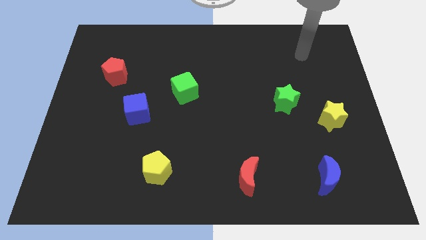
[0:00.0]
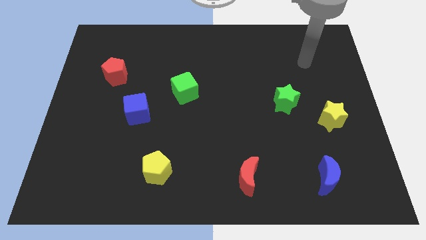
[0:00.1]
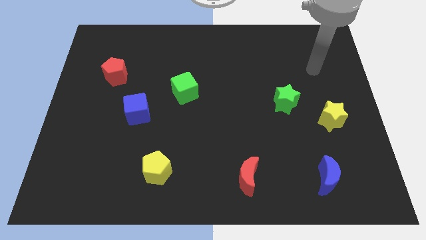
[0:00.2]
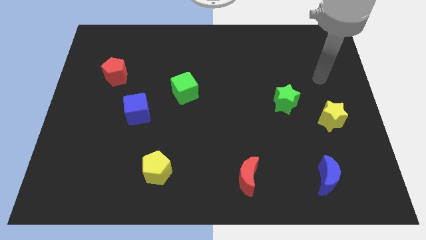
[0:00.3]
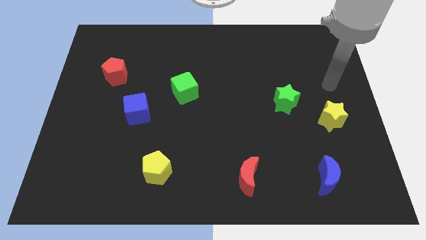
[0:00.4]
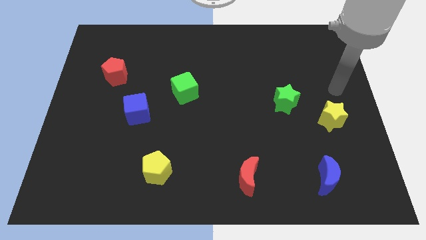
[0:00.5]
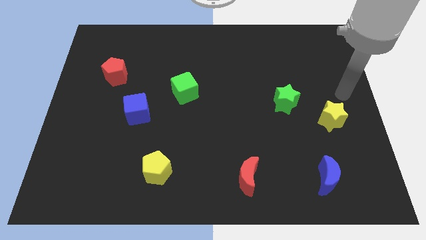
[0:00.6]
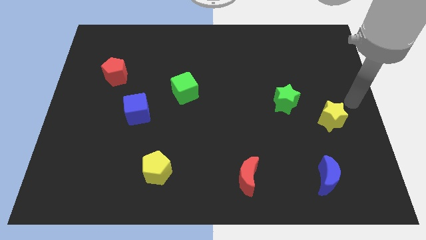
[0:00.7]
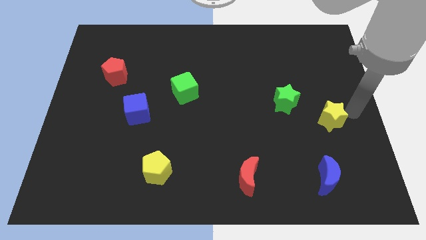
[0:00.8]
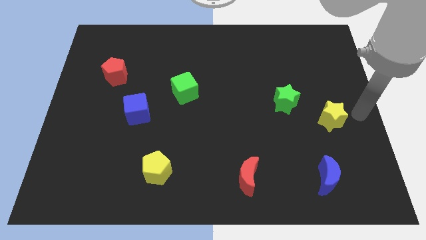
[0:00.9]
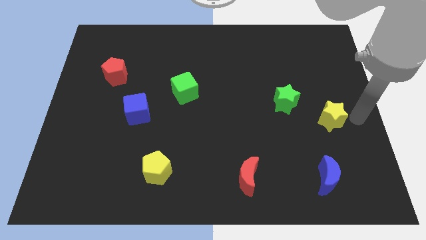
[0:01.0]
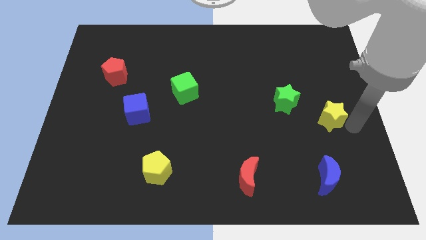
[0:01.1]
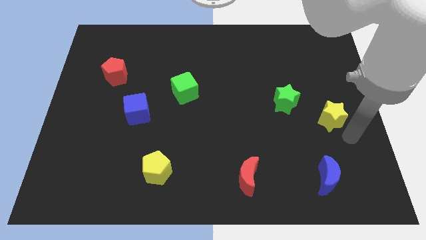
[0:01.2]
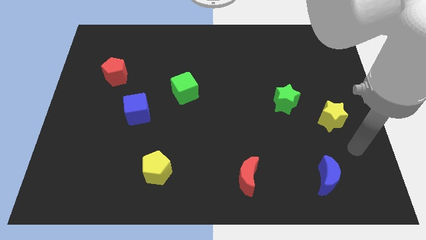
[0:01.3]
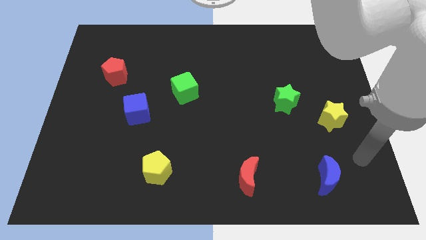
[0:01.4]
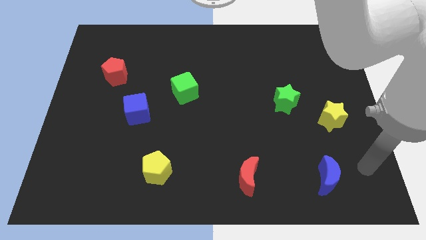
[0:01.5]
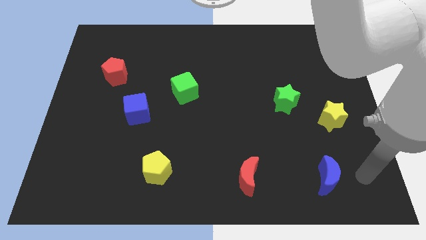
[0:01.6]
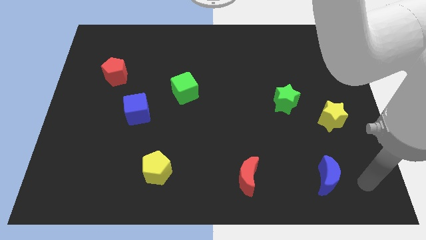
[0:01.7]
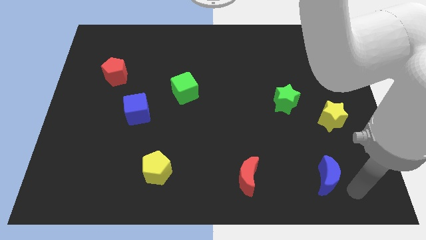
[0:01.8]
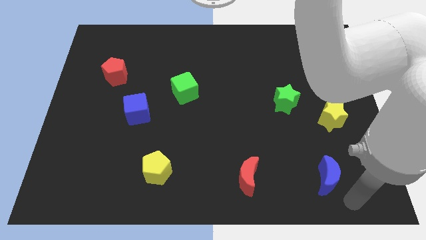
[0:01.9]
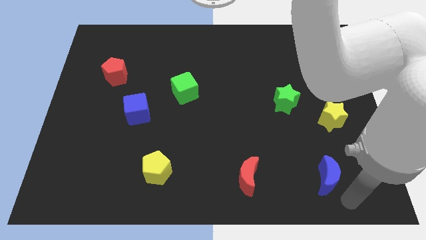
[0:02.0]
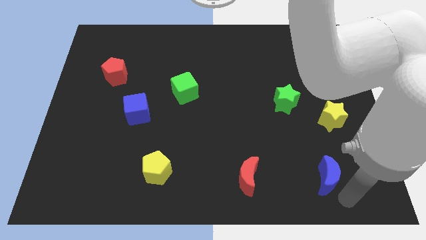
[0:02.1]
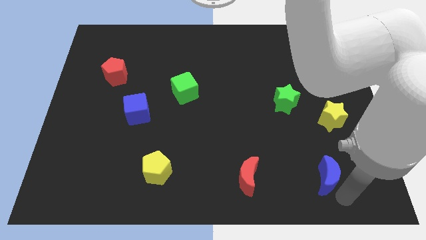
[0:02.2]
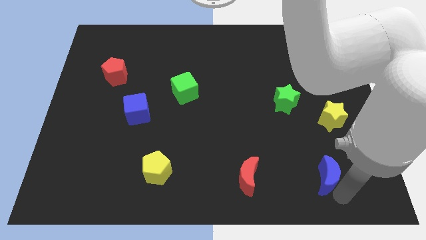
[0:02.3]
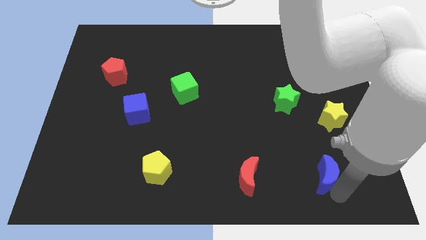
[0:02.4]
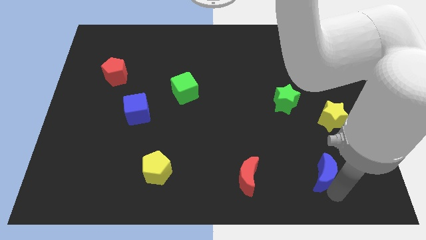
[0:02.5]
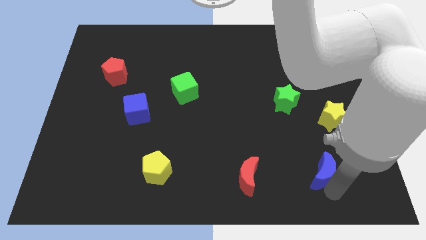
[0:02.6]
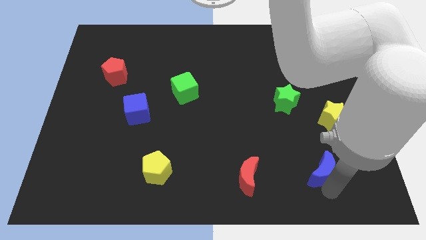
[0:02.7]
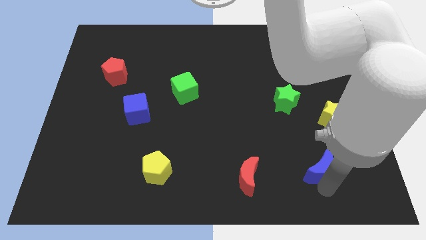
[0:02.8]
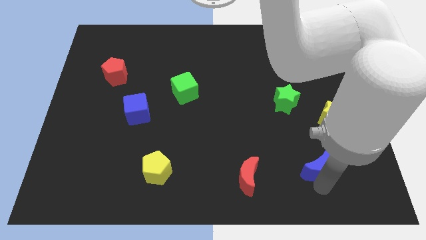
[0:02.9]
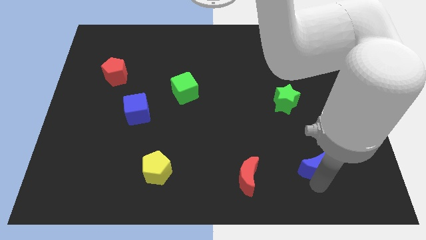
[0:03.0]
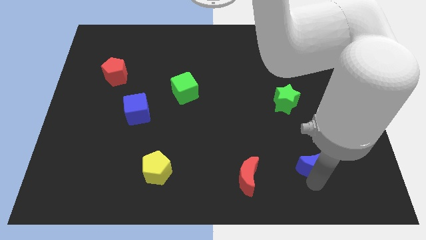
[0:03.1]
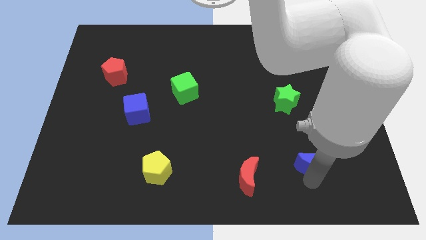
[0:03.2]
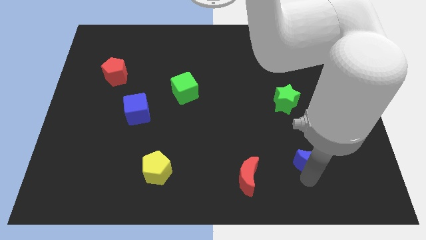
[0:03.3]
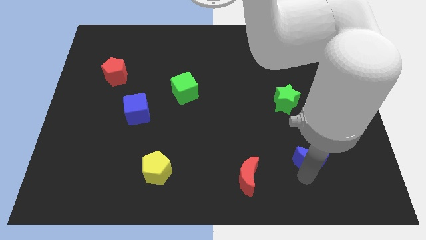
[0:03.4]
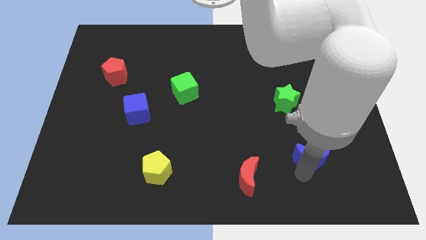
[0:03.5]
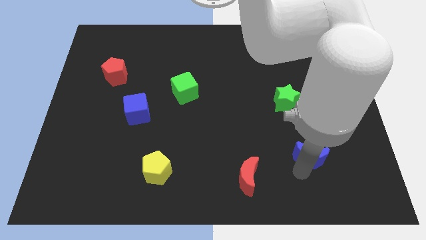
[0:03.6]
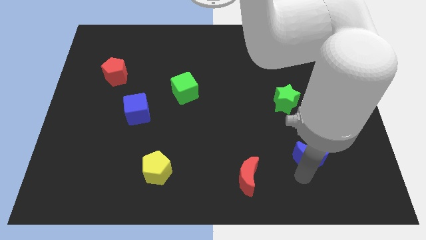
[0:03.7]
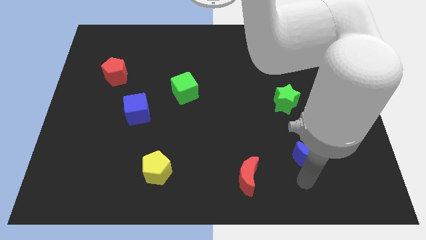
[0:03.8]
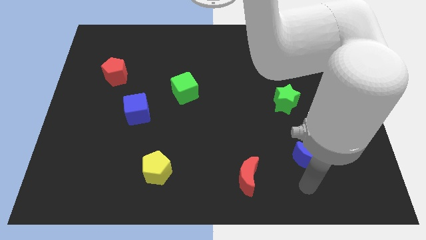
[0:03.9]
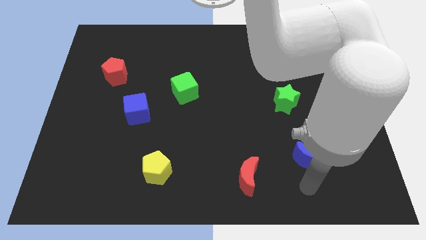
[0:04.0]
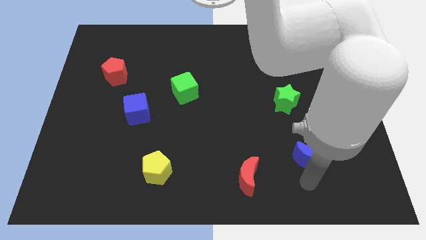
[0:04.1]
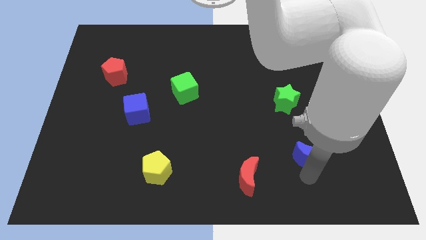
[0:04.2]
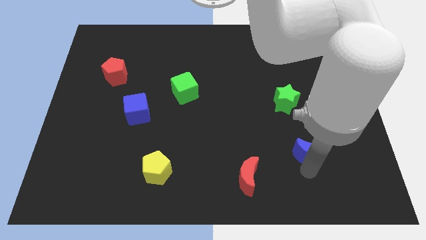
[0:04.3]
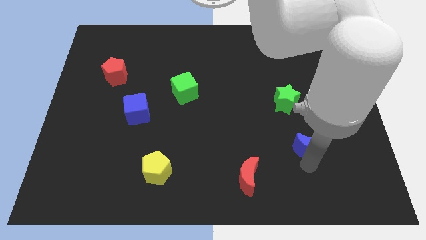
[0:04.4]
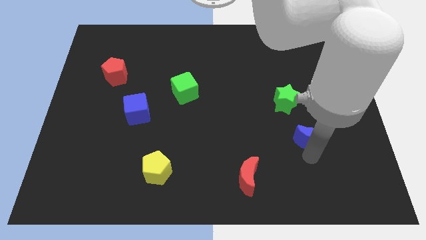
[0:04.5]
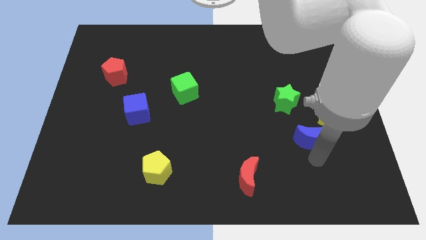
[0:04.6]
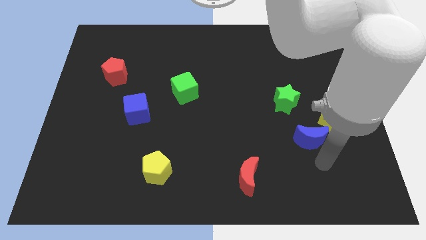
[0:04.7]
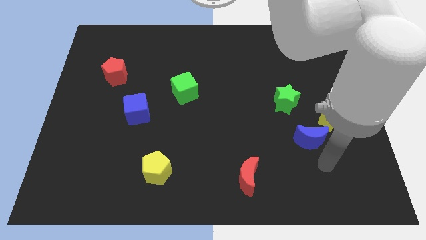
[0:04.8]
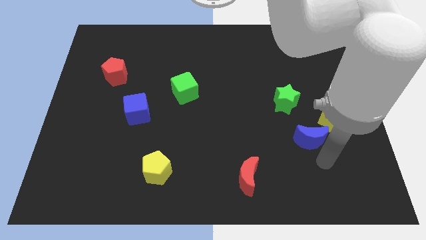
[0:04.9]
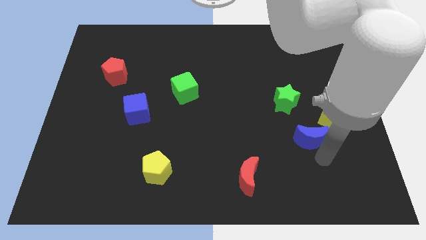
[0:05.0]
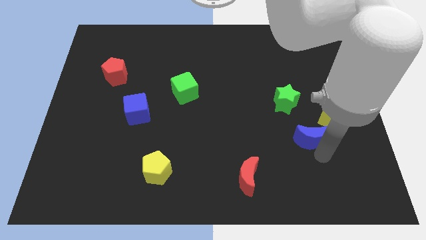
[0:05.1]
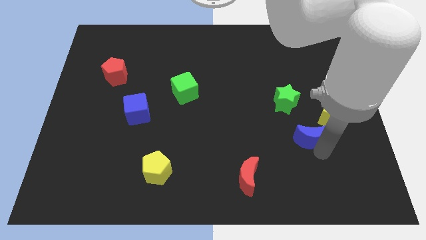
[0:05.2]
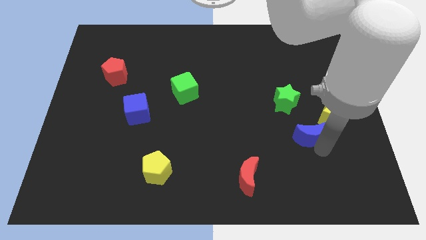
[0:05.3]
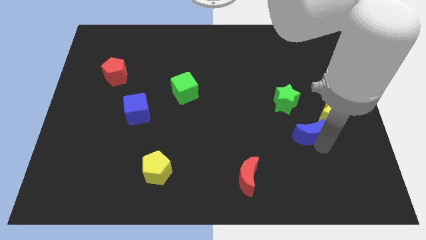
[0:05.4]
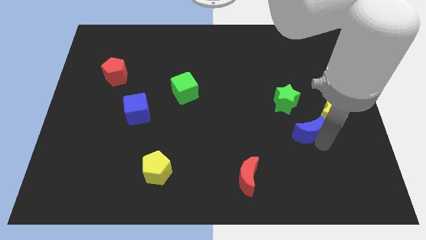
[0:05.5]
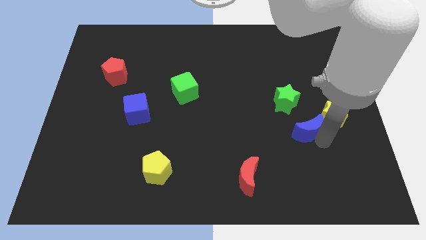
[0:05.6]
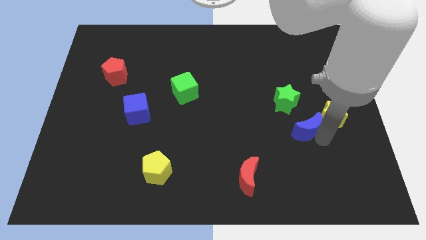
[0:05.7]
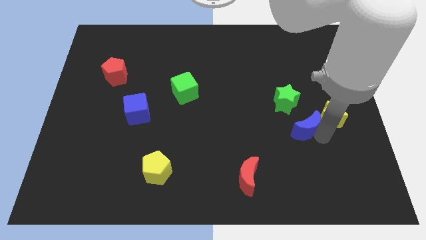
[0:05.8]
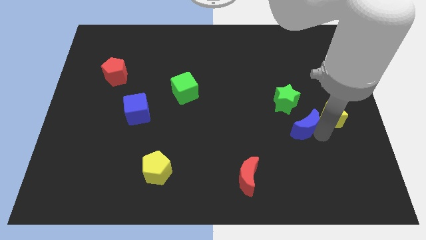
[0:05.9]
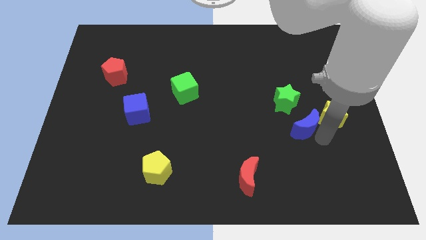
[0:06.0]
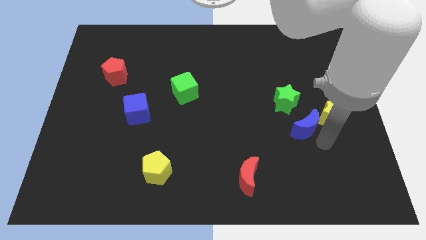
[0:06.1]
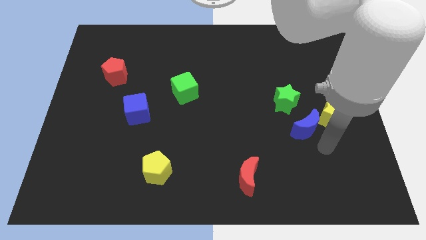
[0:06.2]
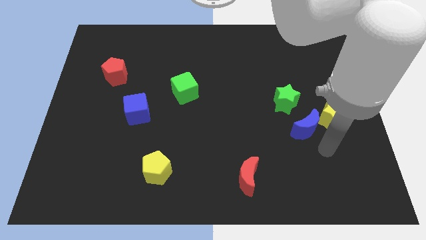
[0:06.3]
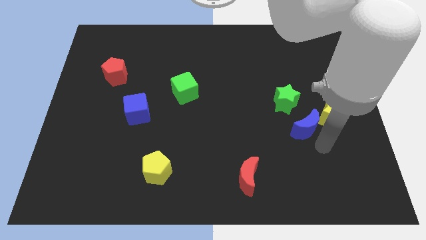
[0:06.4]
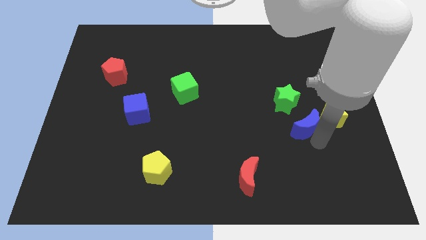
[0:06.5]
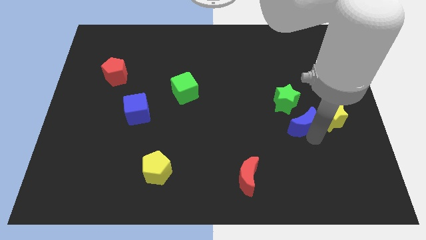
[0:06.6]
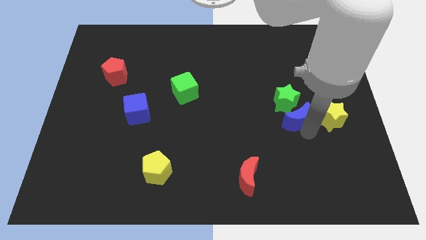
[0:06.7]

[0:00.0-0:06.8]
put the blue moon next to the green star

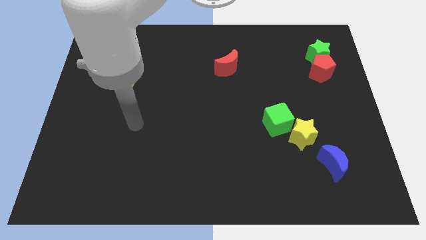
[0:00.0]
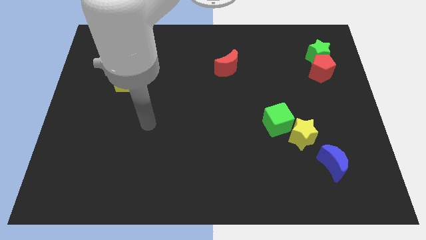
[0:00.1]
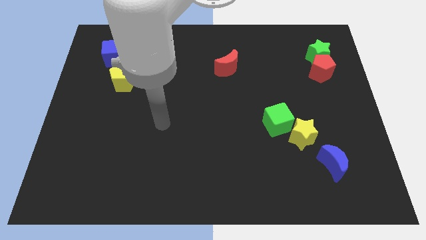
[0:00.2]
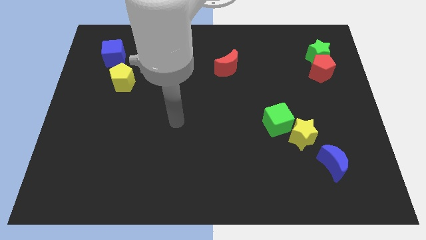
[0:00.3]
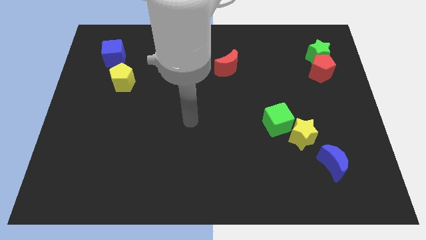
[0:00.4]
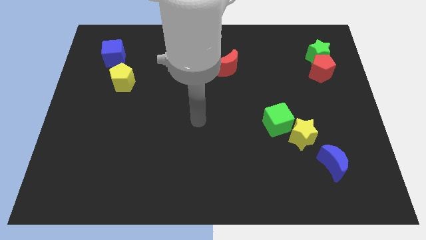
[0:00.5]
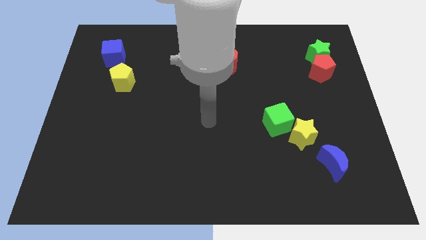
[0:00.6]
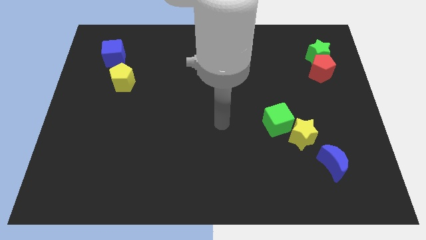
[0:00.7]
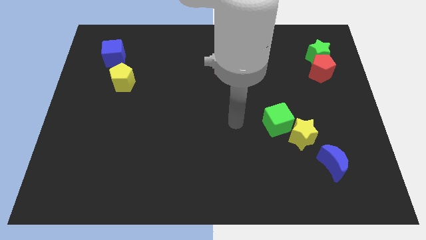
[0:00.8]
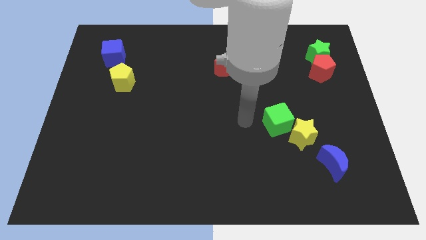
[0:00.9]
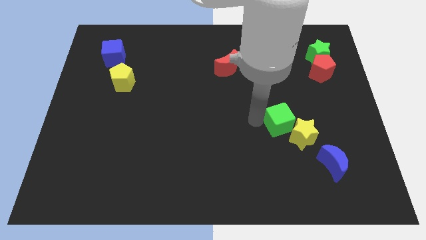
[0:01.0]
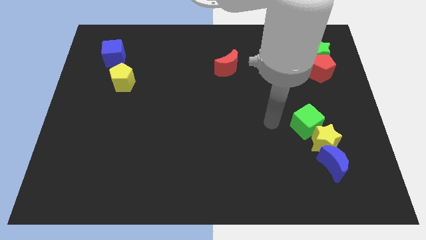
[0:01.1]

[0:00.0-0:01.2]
move the yellow star close to the blue moon
